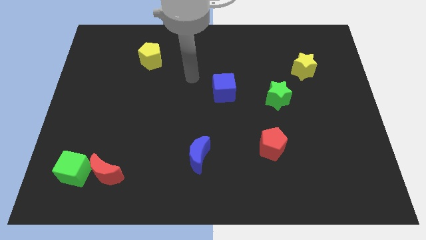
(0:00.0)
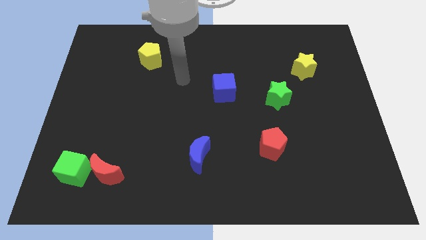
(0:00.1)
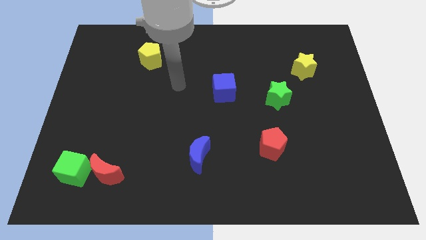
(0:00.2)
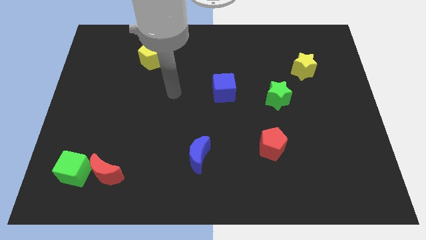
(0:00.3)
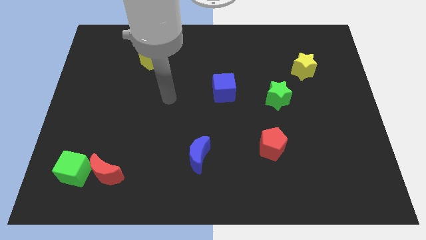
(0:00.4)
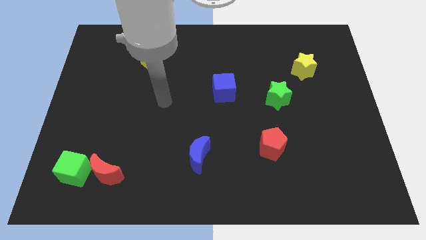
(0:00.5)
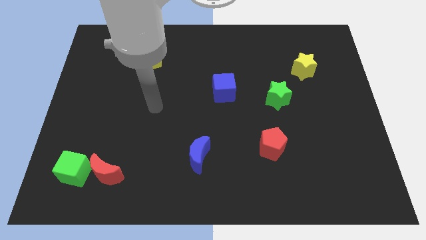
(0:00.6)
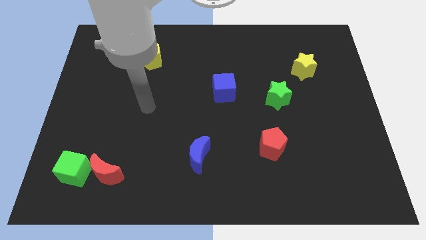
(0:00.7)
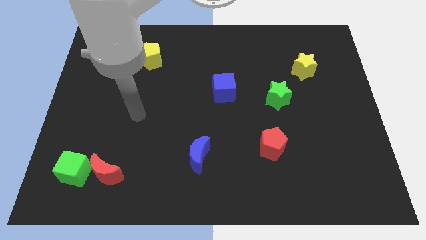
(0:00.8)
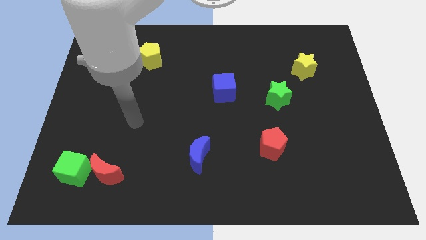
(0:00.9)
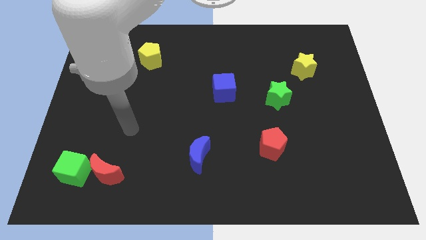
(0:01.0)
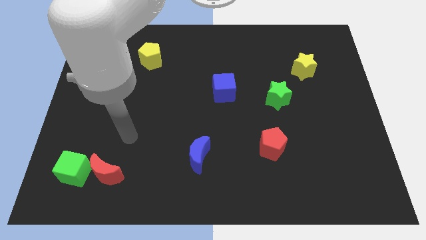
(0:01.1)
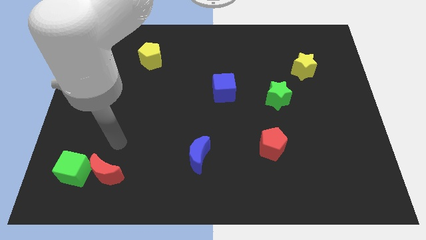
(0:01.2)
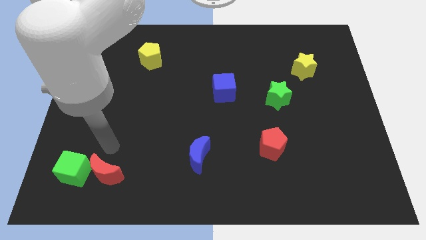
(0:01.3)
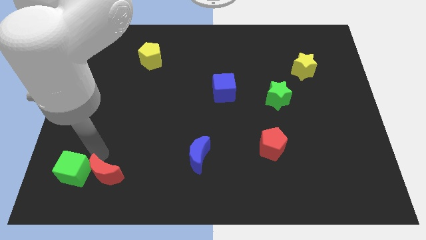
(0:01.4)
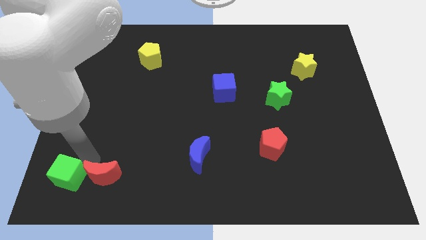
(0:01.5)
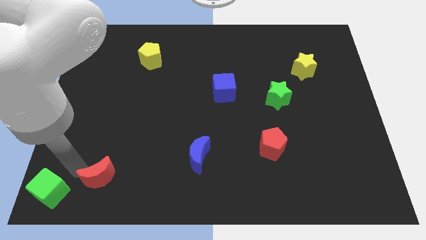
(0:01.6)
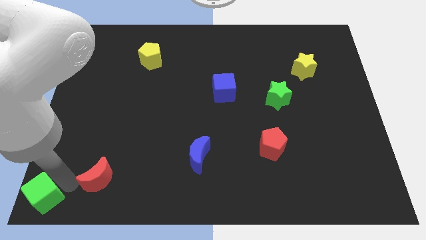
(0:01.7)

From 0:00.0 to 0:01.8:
pull the red moon apart from the green cube

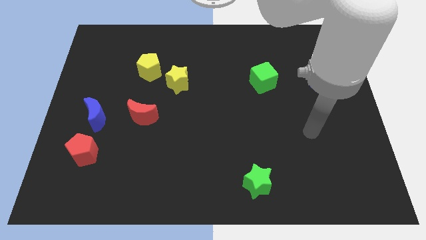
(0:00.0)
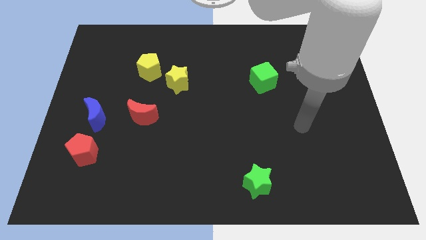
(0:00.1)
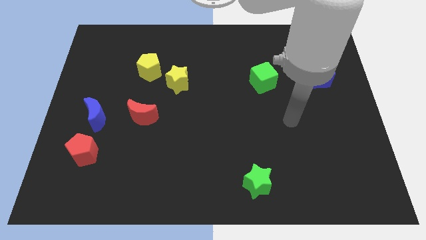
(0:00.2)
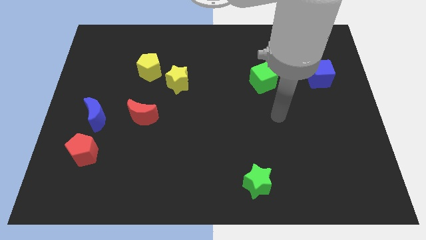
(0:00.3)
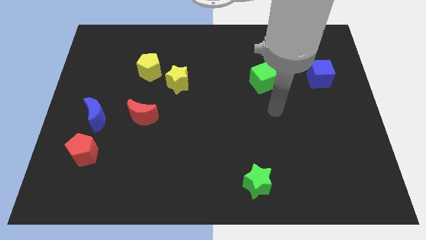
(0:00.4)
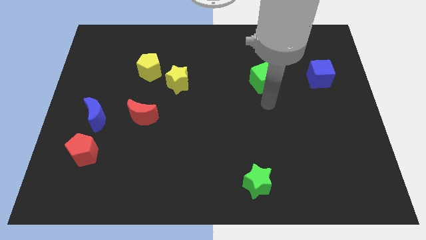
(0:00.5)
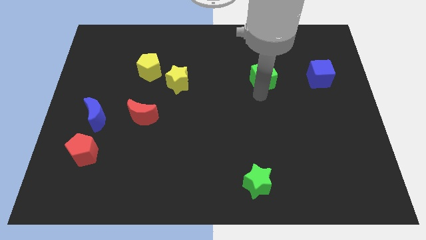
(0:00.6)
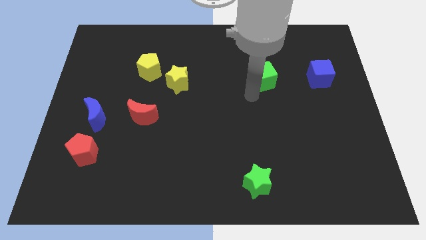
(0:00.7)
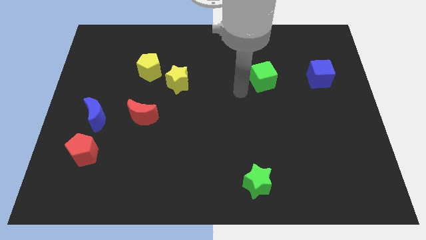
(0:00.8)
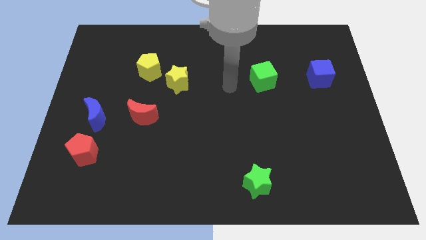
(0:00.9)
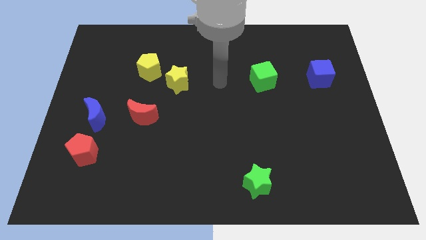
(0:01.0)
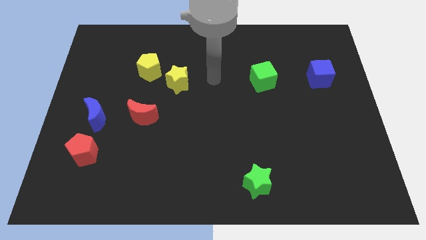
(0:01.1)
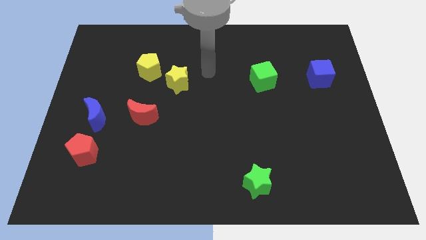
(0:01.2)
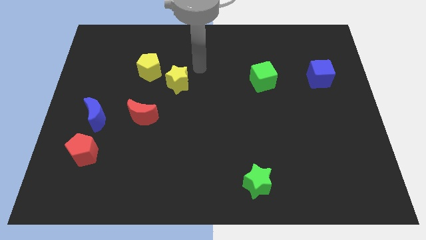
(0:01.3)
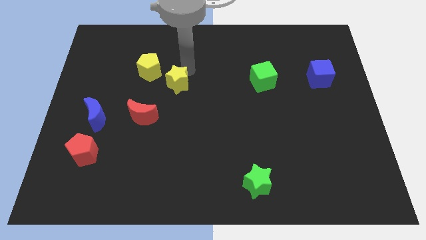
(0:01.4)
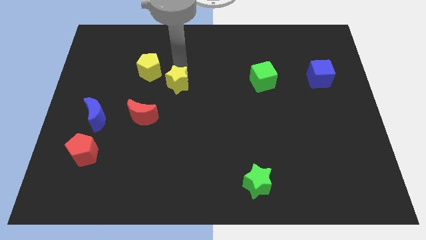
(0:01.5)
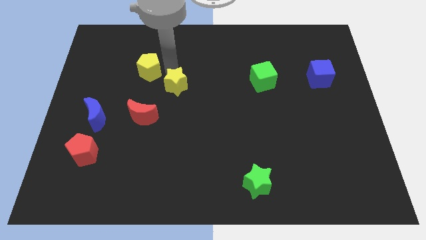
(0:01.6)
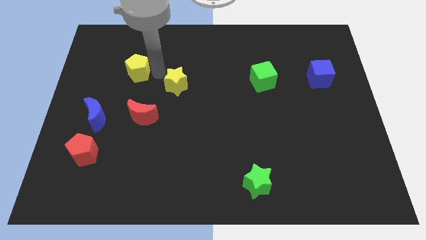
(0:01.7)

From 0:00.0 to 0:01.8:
separate the yellow star from the yellow pentagon

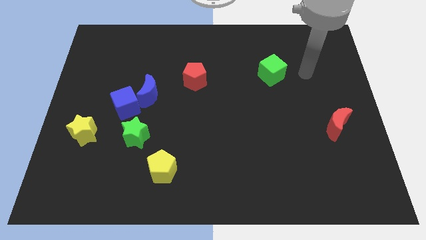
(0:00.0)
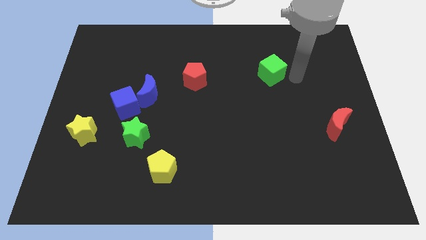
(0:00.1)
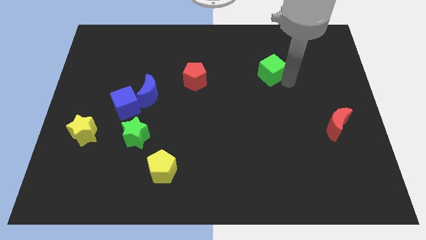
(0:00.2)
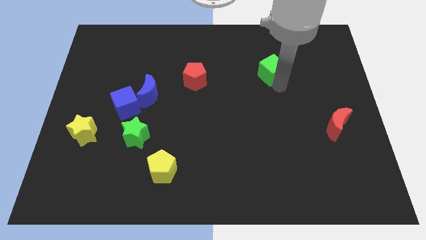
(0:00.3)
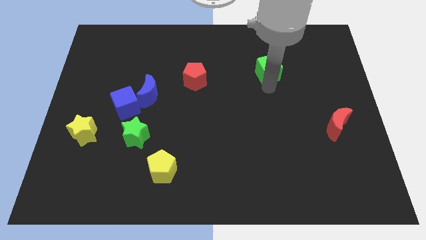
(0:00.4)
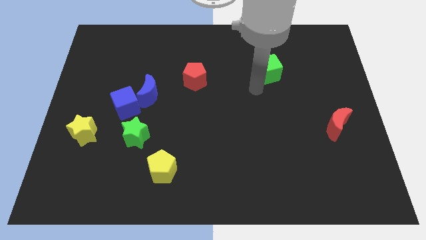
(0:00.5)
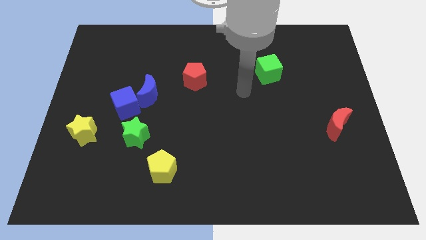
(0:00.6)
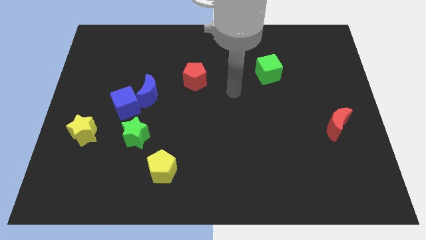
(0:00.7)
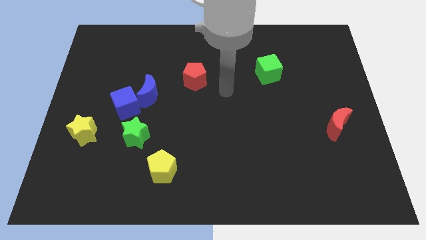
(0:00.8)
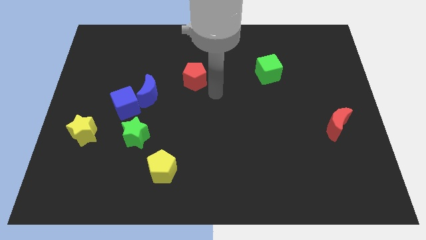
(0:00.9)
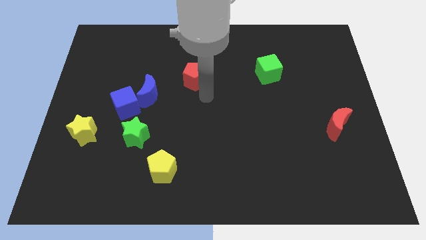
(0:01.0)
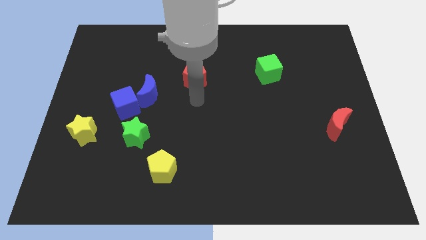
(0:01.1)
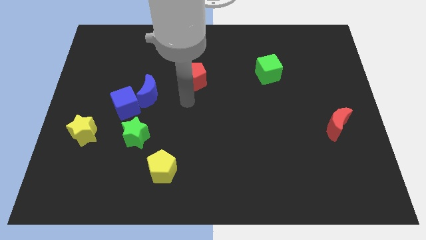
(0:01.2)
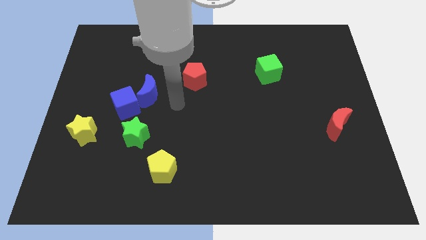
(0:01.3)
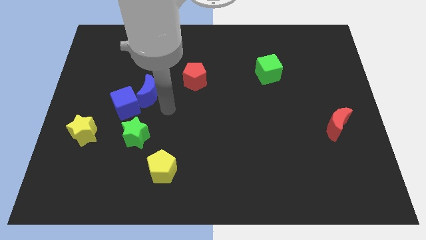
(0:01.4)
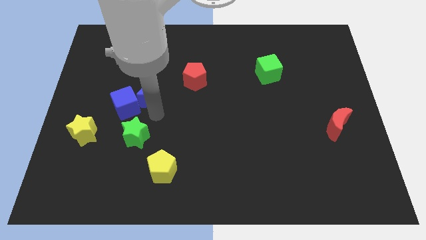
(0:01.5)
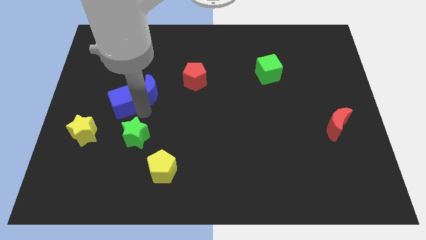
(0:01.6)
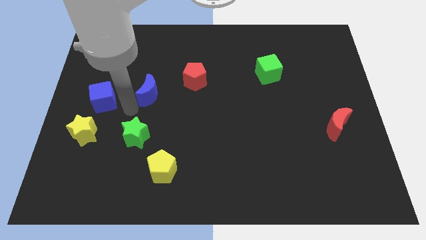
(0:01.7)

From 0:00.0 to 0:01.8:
move the blue moon away from the blue cube

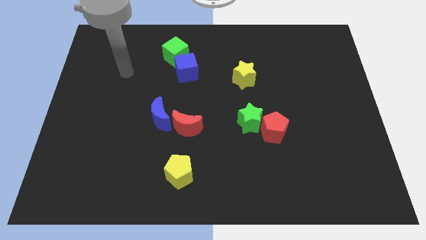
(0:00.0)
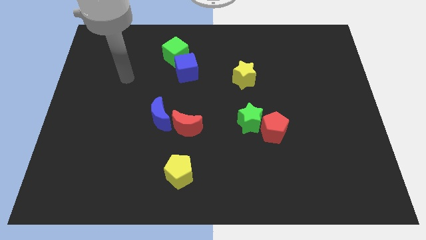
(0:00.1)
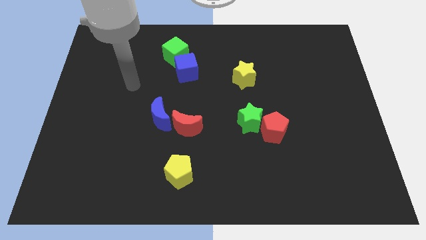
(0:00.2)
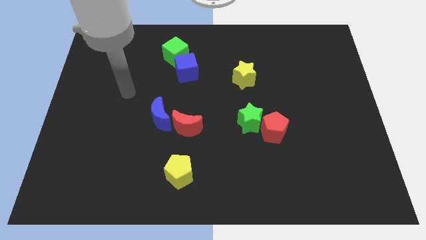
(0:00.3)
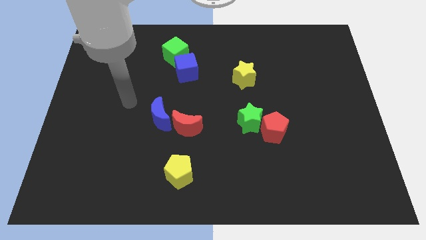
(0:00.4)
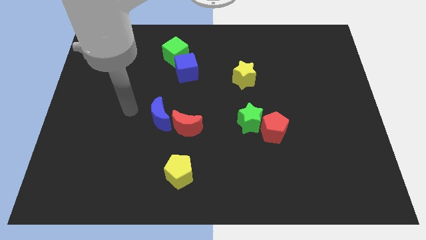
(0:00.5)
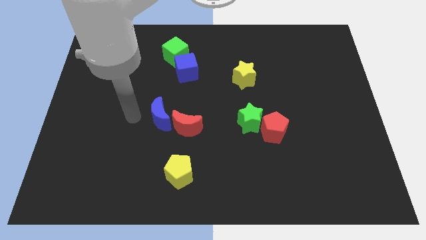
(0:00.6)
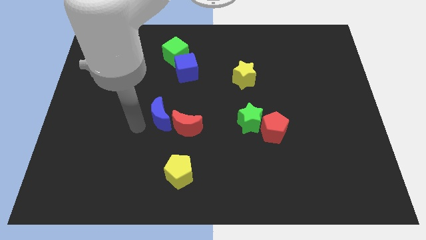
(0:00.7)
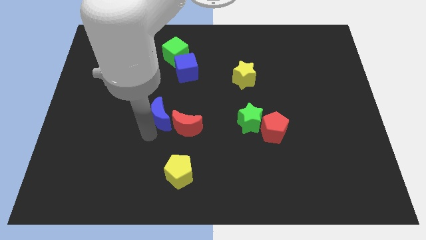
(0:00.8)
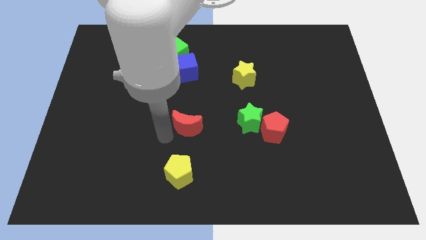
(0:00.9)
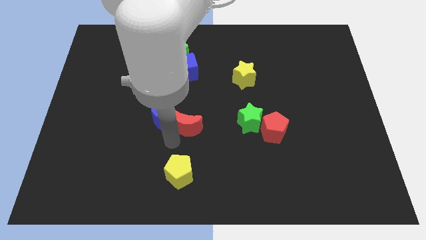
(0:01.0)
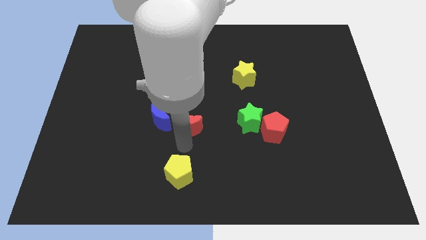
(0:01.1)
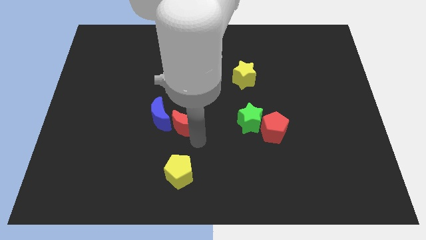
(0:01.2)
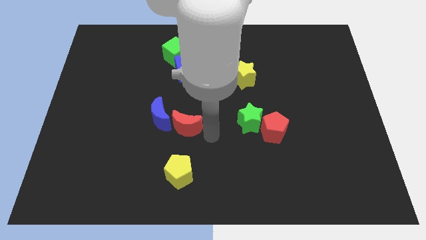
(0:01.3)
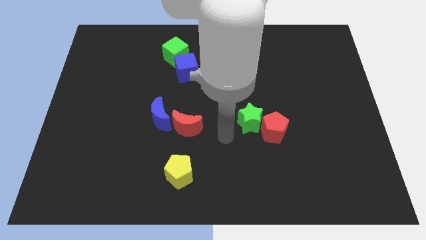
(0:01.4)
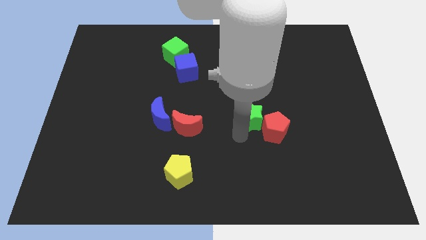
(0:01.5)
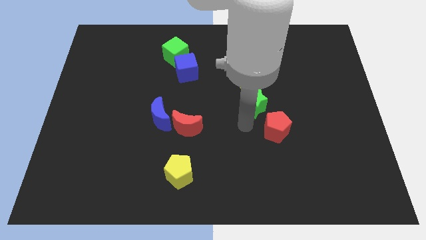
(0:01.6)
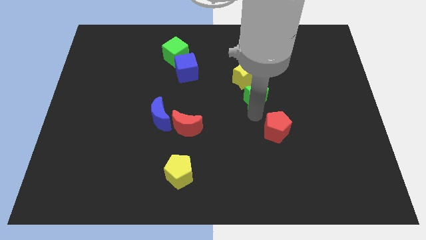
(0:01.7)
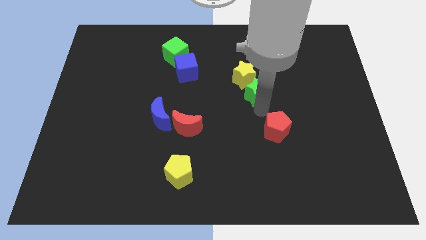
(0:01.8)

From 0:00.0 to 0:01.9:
separate the red pentagon from the green star

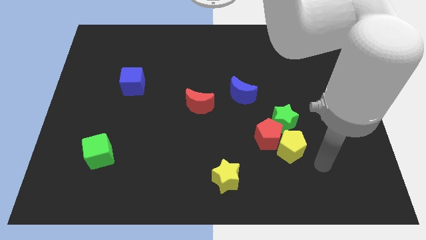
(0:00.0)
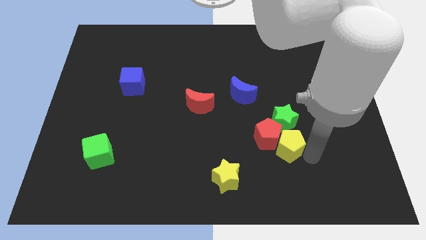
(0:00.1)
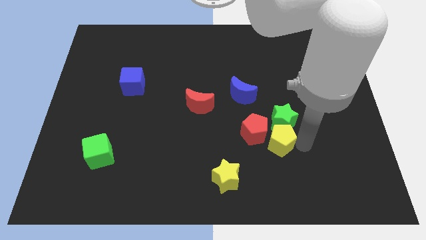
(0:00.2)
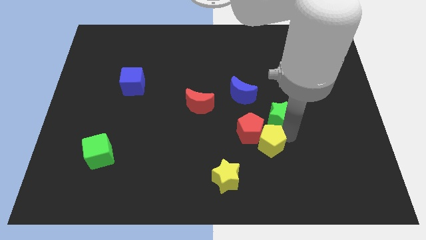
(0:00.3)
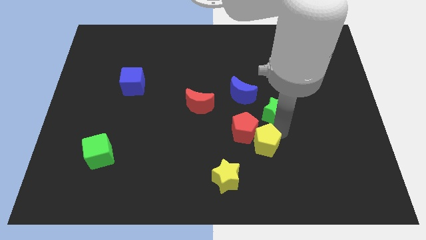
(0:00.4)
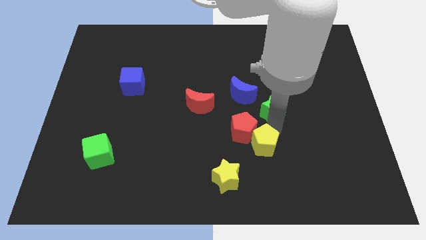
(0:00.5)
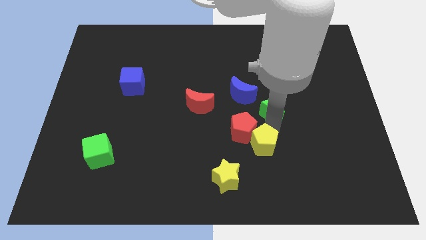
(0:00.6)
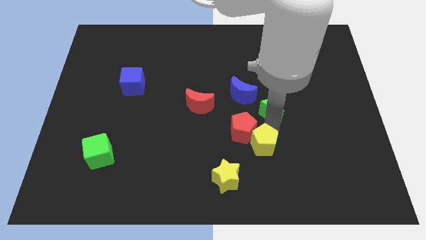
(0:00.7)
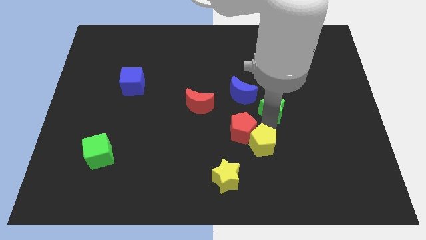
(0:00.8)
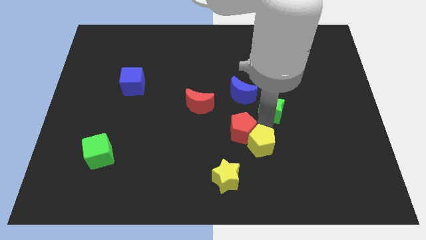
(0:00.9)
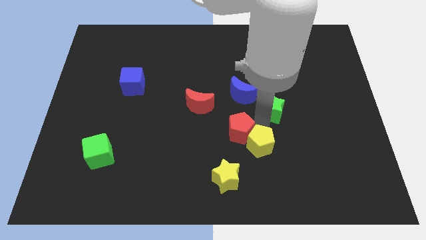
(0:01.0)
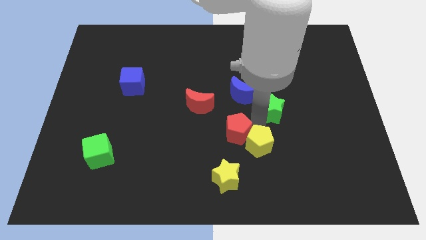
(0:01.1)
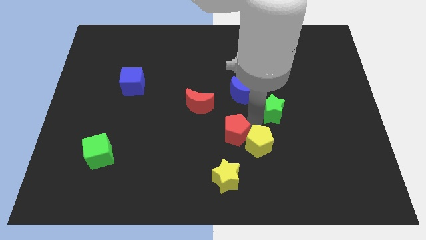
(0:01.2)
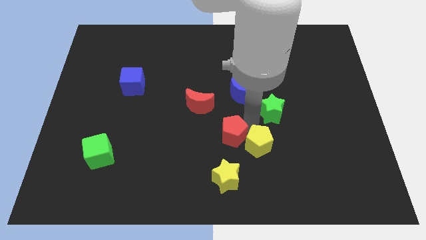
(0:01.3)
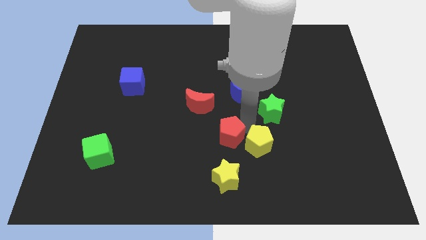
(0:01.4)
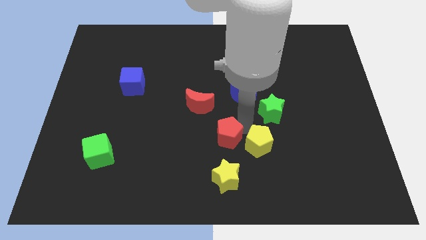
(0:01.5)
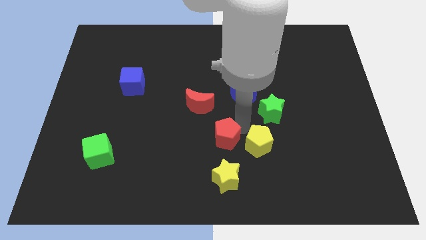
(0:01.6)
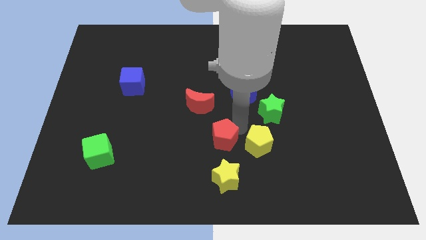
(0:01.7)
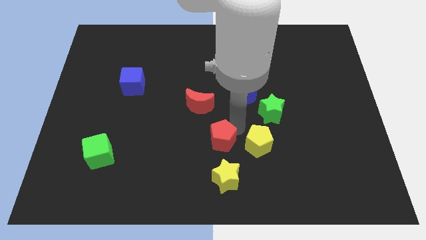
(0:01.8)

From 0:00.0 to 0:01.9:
separate the red pentagon from the yellow pentagon and green star
